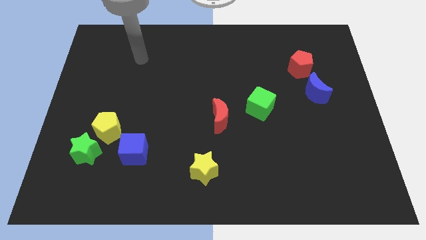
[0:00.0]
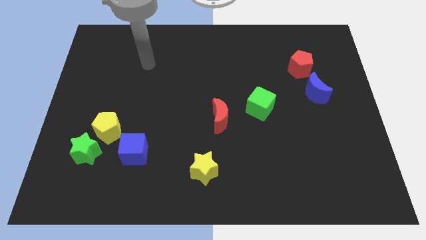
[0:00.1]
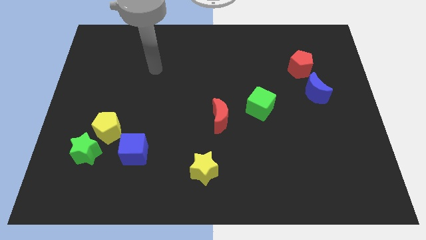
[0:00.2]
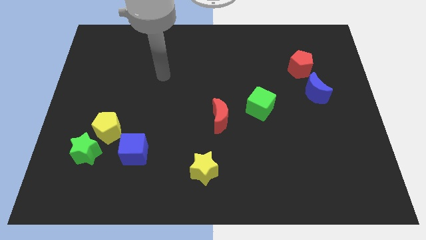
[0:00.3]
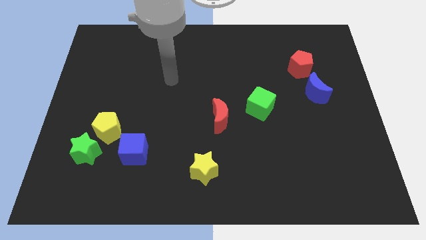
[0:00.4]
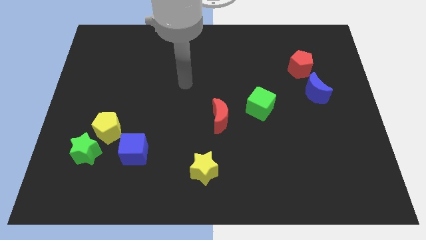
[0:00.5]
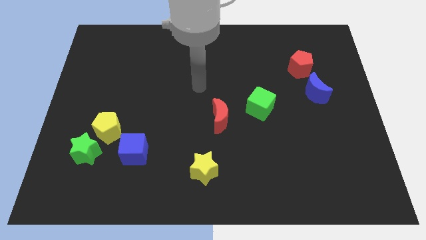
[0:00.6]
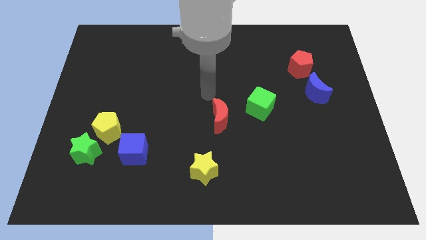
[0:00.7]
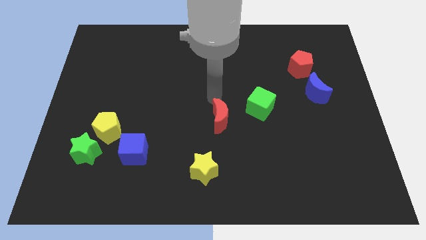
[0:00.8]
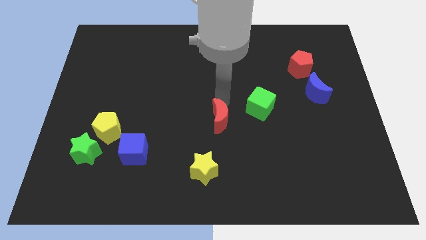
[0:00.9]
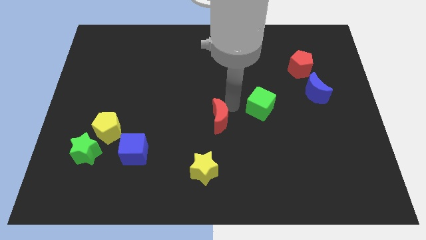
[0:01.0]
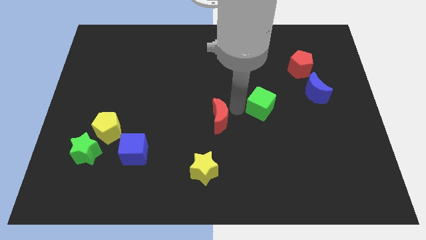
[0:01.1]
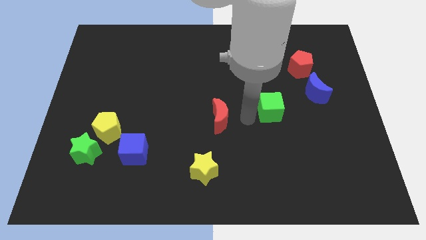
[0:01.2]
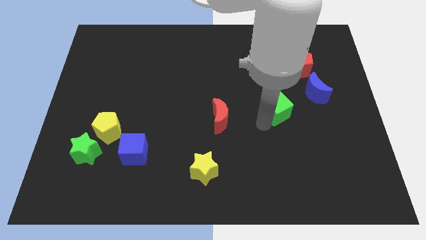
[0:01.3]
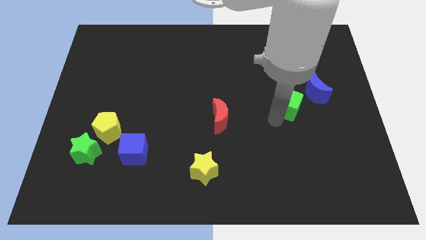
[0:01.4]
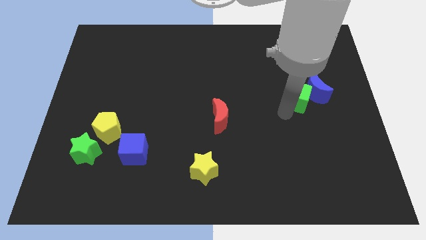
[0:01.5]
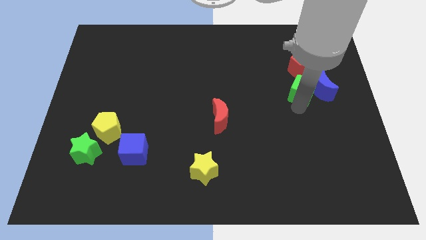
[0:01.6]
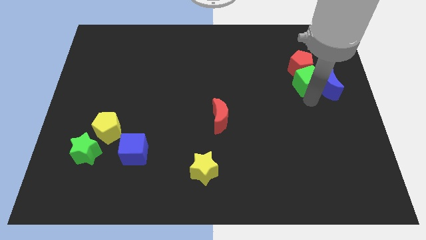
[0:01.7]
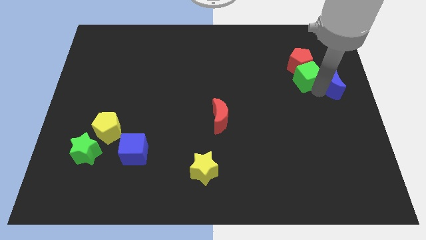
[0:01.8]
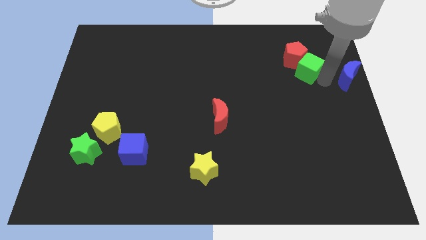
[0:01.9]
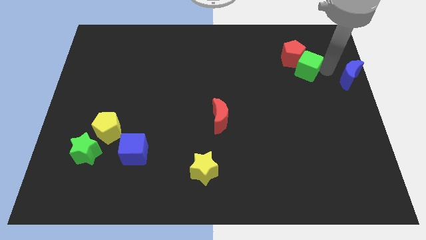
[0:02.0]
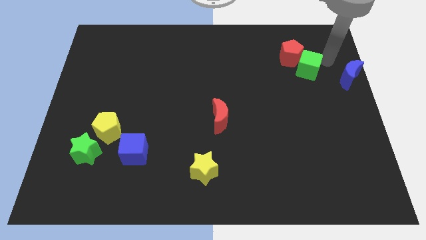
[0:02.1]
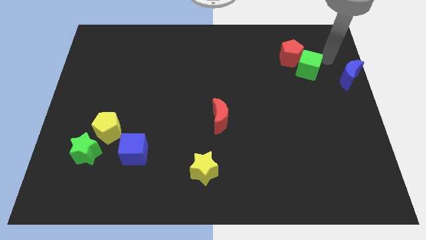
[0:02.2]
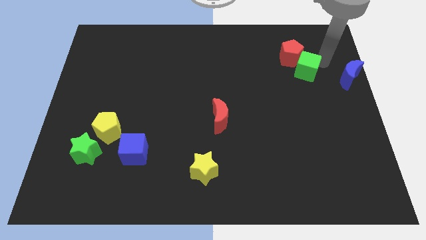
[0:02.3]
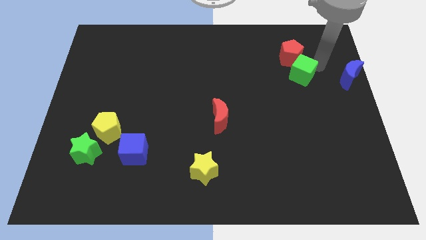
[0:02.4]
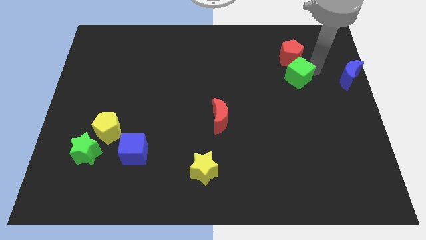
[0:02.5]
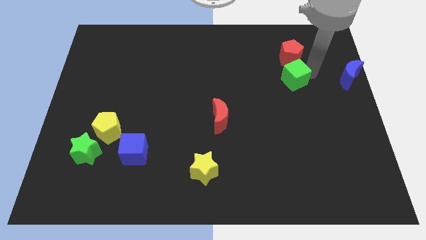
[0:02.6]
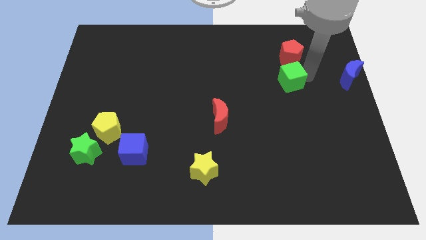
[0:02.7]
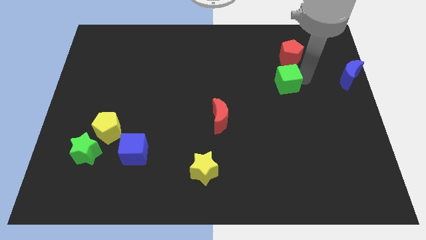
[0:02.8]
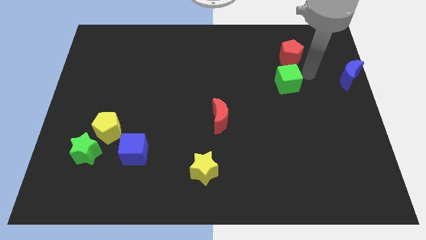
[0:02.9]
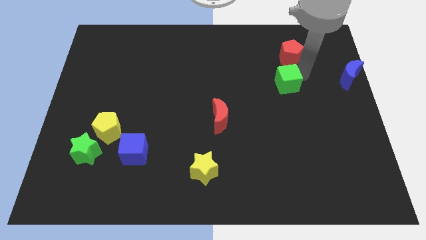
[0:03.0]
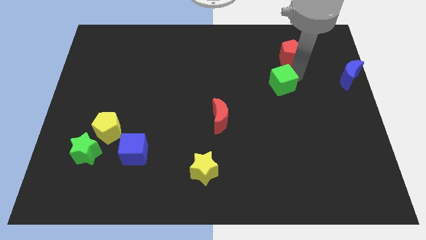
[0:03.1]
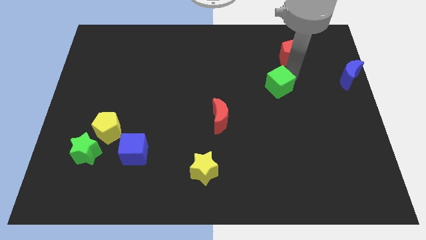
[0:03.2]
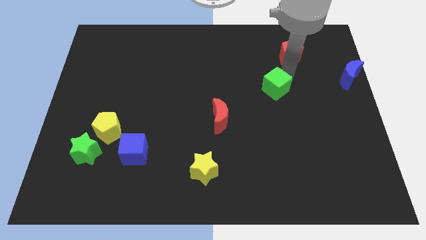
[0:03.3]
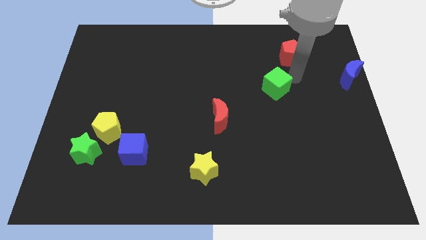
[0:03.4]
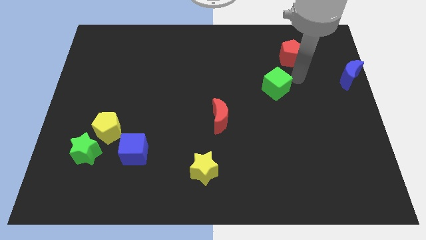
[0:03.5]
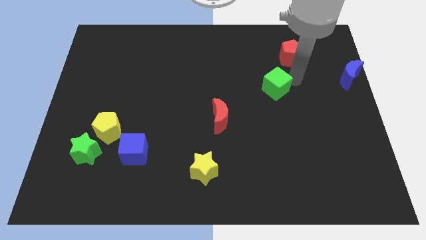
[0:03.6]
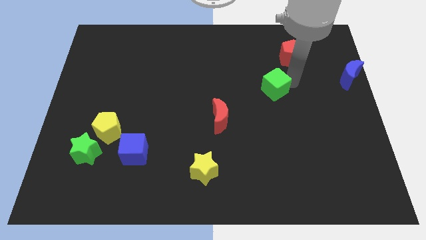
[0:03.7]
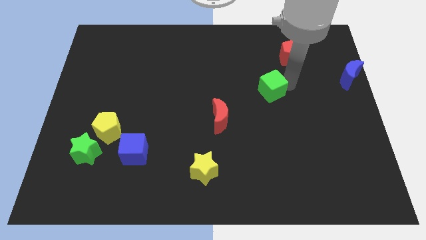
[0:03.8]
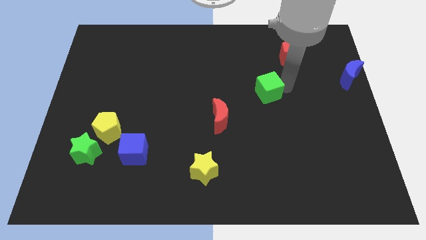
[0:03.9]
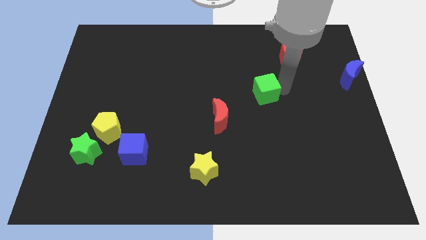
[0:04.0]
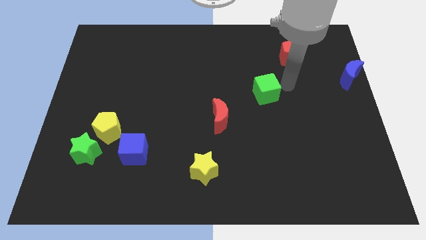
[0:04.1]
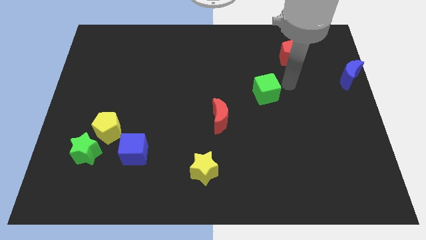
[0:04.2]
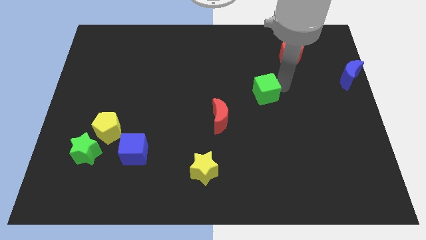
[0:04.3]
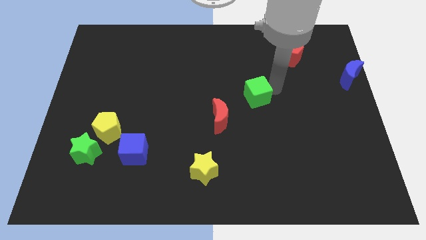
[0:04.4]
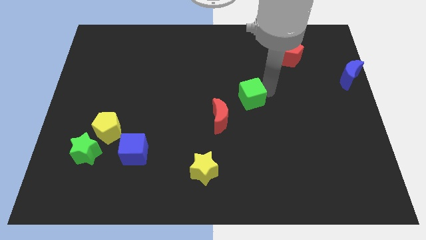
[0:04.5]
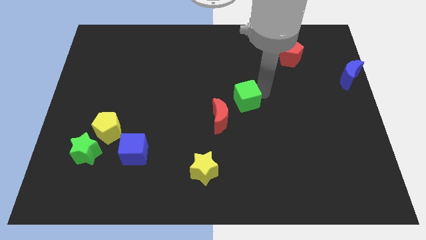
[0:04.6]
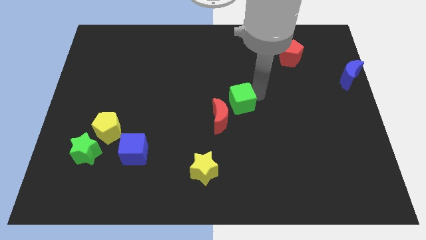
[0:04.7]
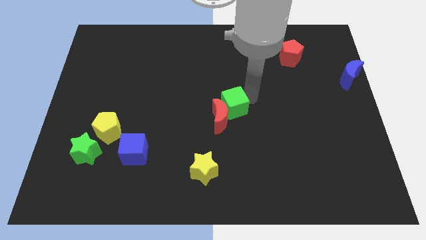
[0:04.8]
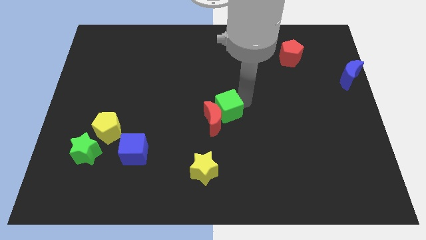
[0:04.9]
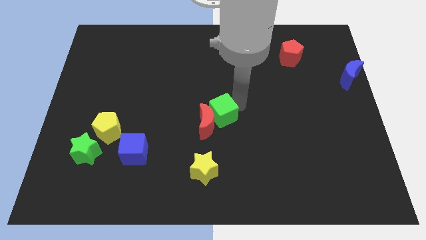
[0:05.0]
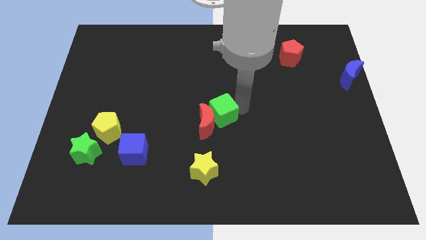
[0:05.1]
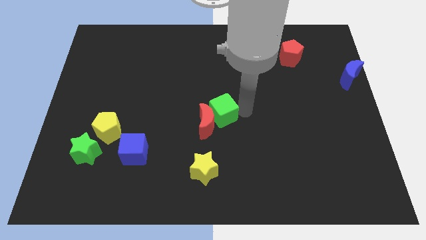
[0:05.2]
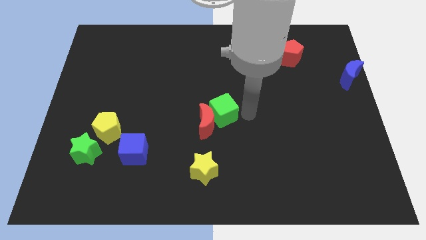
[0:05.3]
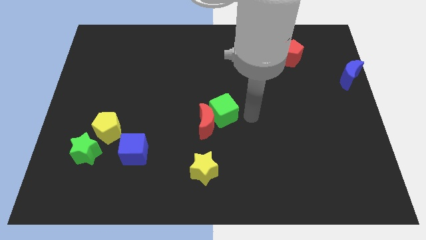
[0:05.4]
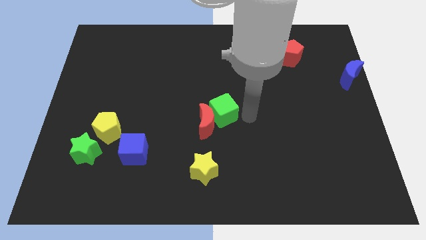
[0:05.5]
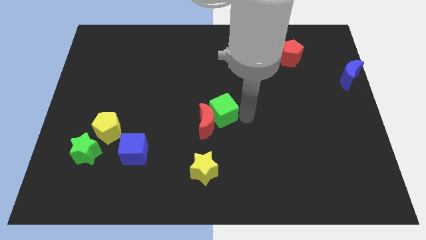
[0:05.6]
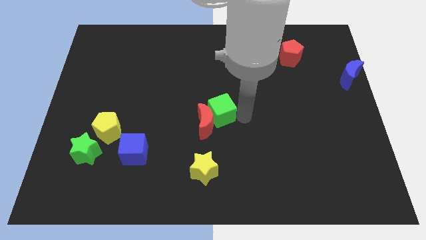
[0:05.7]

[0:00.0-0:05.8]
put the green cube to the top side of the yellow star

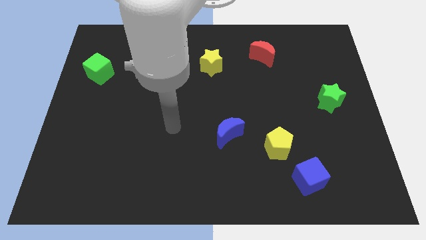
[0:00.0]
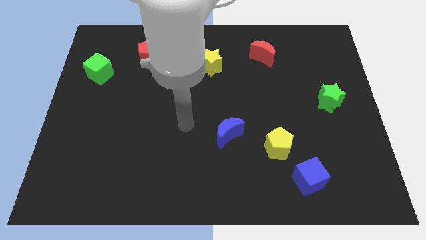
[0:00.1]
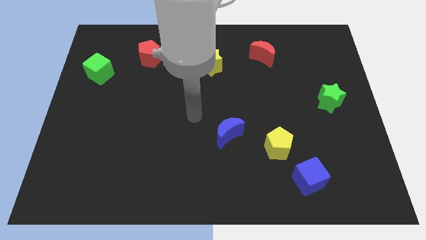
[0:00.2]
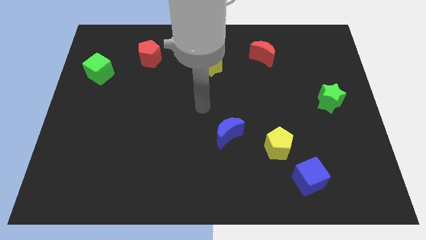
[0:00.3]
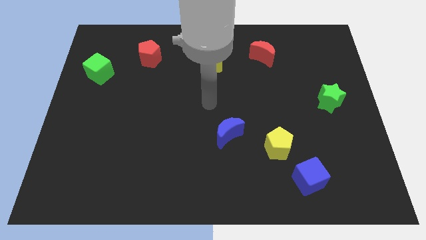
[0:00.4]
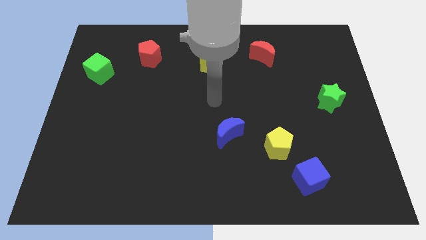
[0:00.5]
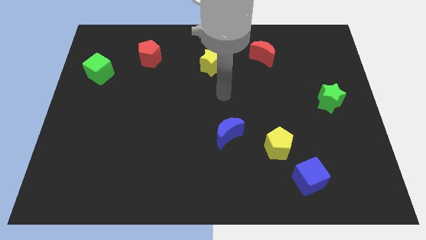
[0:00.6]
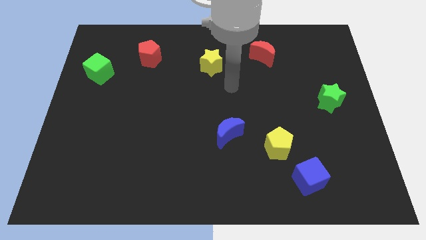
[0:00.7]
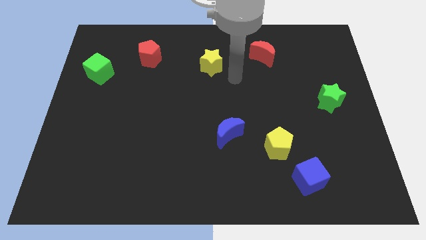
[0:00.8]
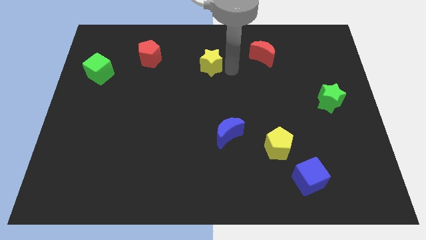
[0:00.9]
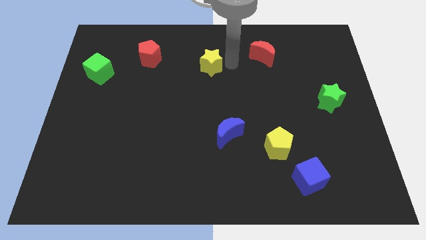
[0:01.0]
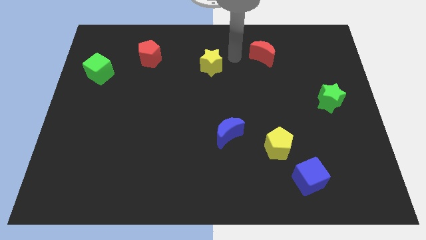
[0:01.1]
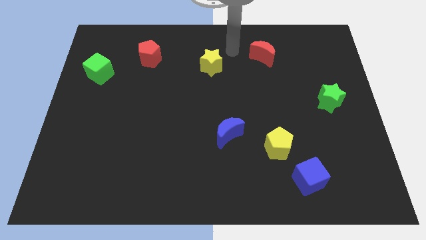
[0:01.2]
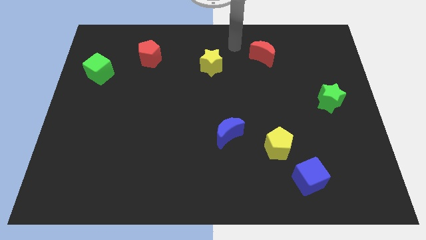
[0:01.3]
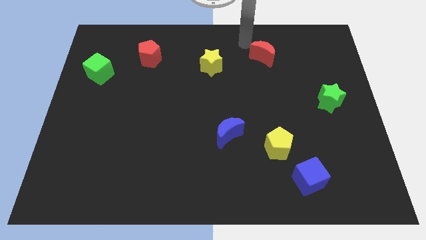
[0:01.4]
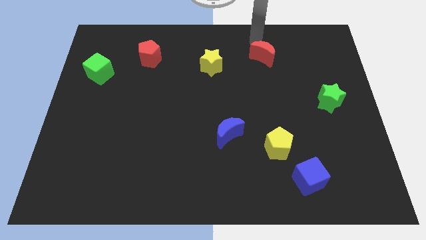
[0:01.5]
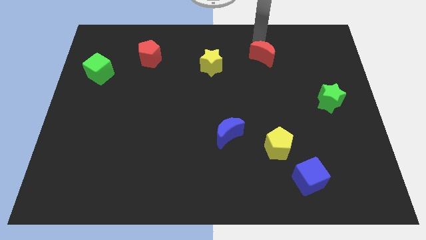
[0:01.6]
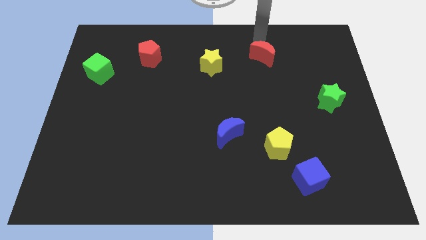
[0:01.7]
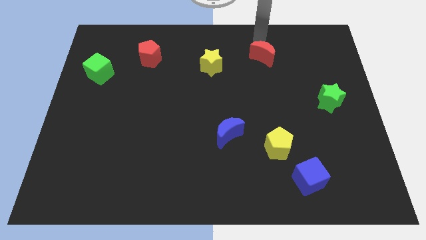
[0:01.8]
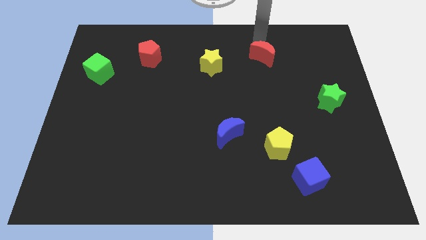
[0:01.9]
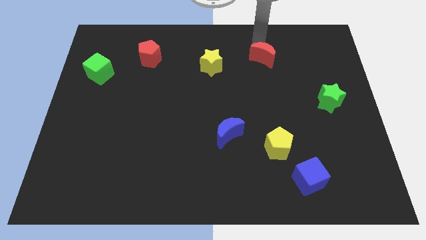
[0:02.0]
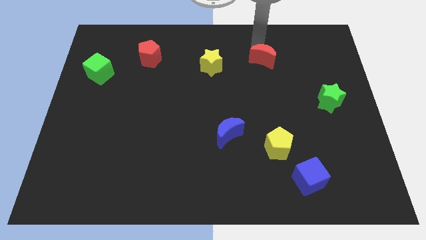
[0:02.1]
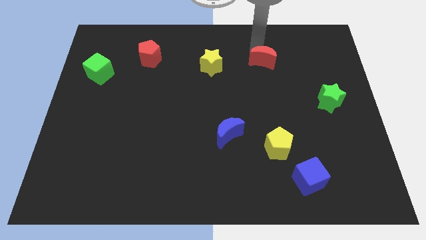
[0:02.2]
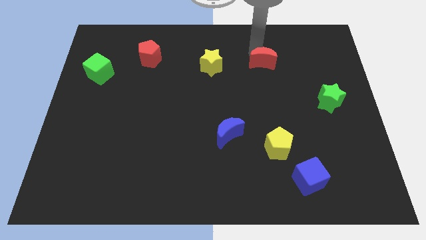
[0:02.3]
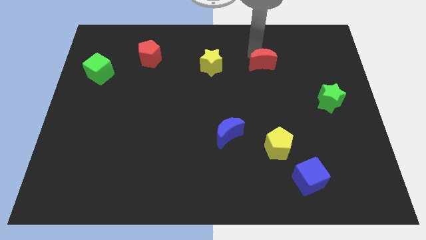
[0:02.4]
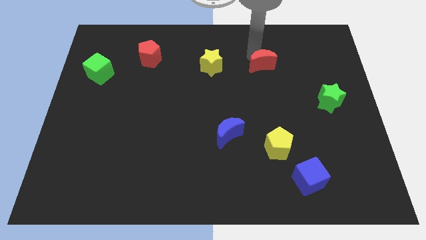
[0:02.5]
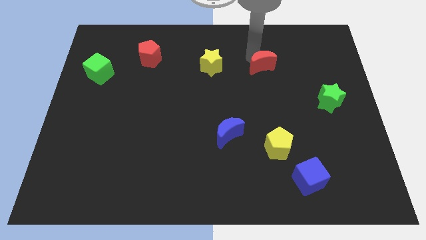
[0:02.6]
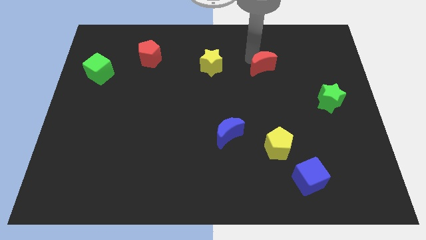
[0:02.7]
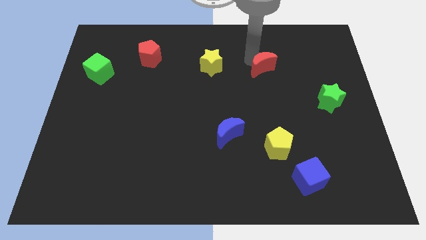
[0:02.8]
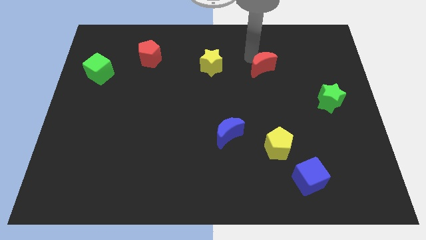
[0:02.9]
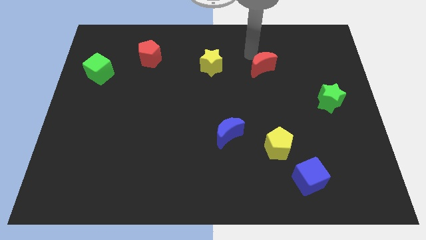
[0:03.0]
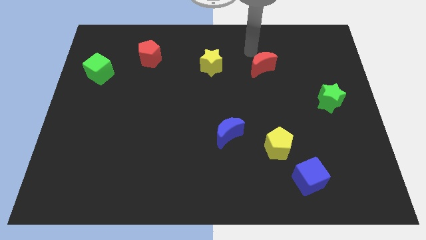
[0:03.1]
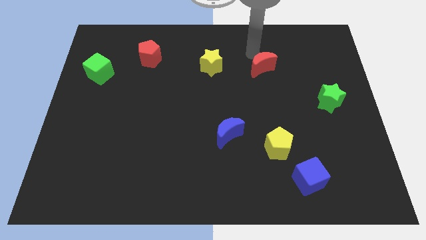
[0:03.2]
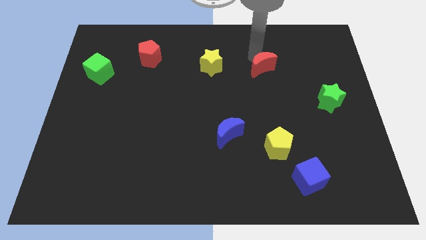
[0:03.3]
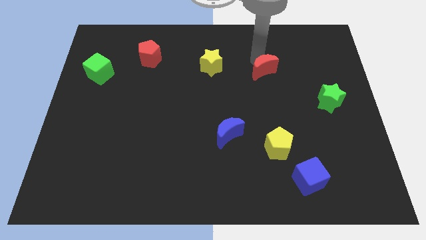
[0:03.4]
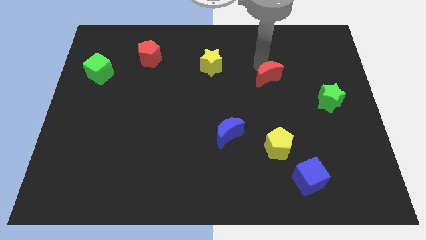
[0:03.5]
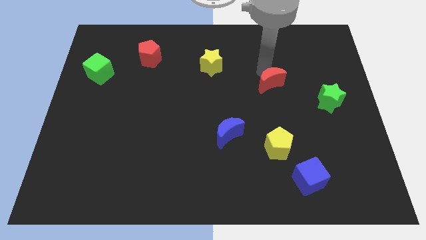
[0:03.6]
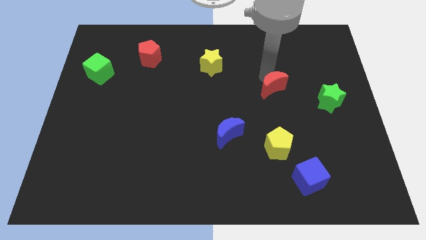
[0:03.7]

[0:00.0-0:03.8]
put the red moon to the left side of the green star
